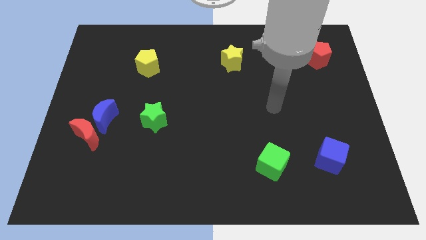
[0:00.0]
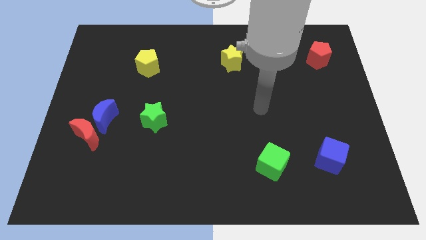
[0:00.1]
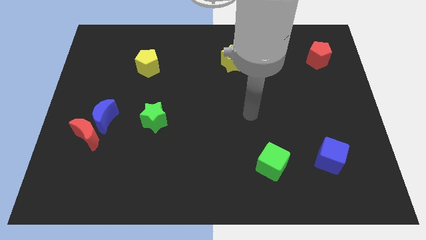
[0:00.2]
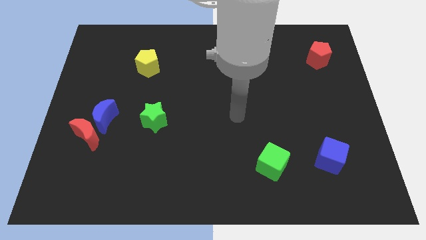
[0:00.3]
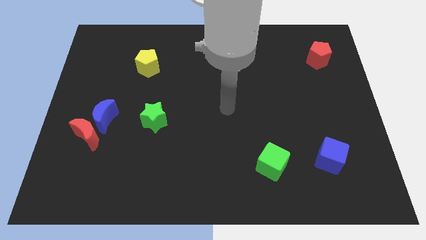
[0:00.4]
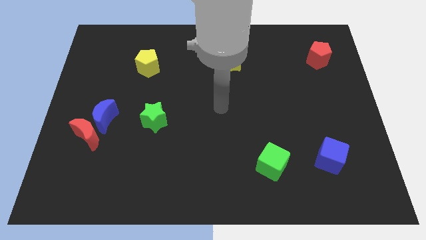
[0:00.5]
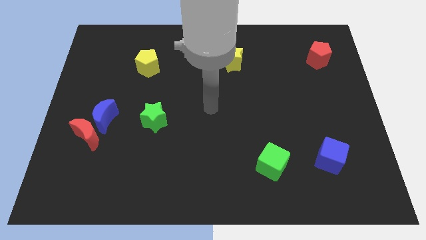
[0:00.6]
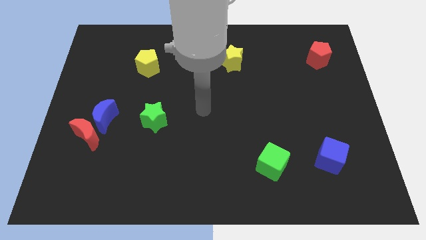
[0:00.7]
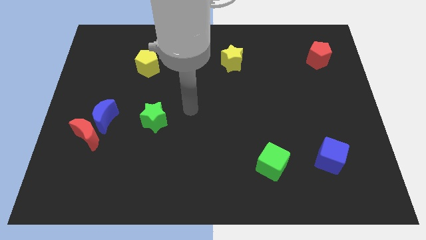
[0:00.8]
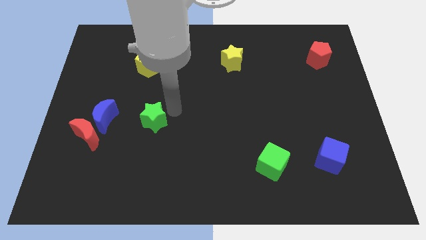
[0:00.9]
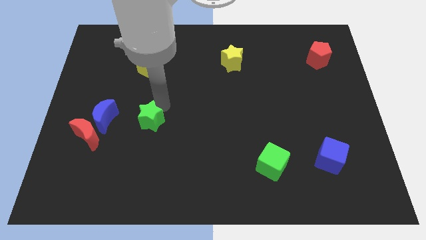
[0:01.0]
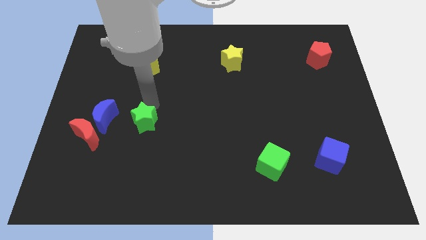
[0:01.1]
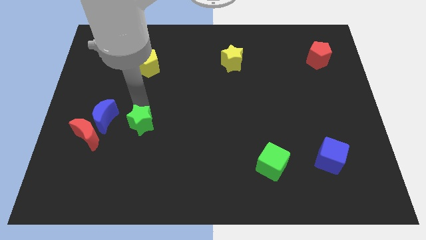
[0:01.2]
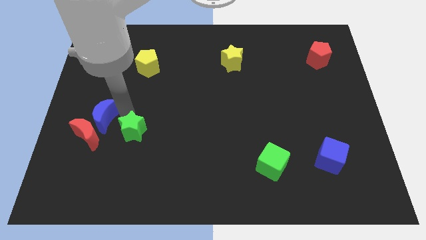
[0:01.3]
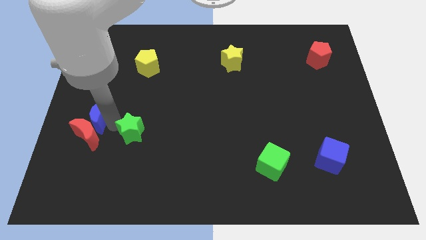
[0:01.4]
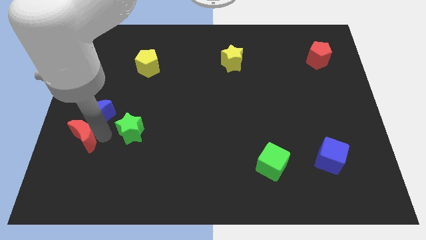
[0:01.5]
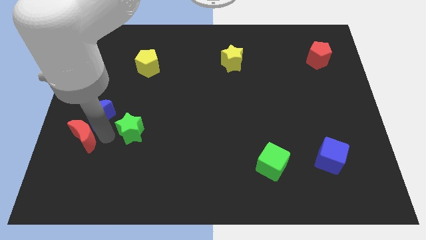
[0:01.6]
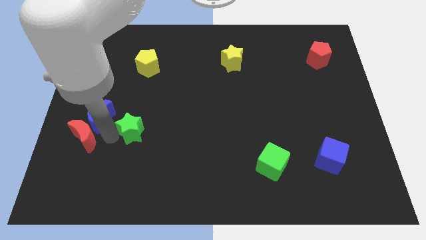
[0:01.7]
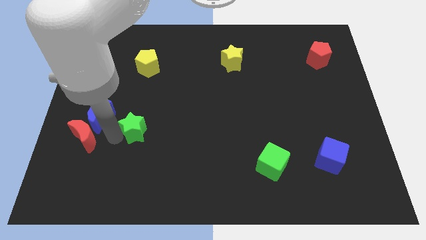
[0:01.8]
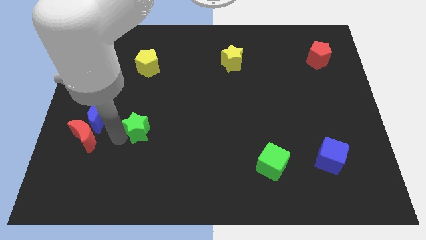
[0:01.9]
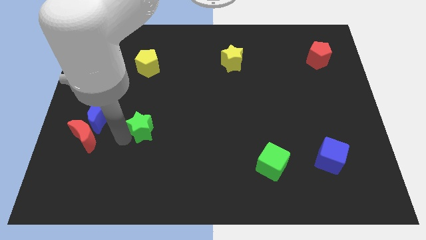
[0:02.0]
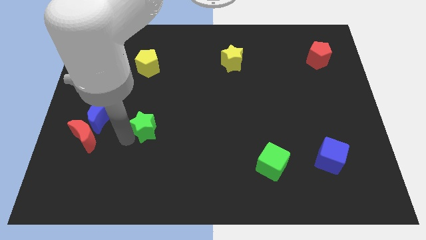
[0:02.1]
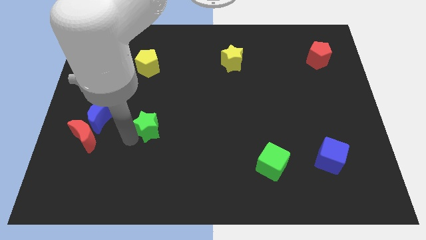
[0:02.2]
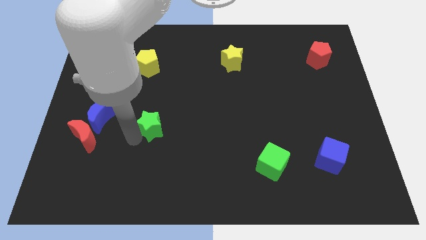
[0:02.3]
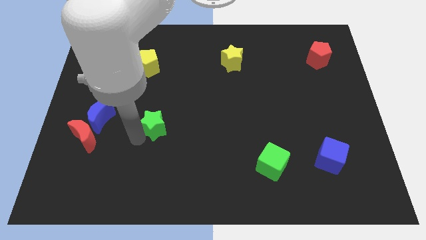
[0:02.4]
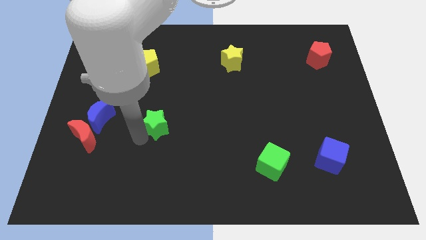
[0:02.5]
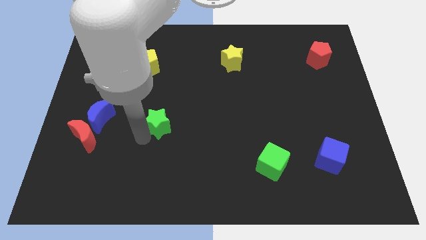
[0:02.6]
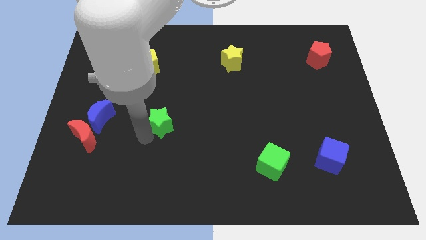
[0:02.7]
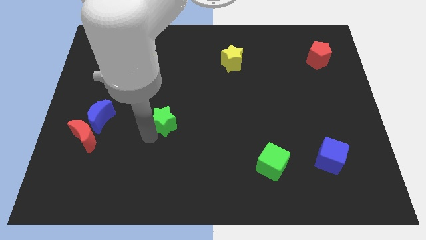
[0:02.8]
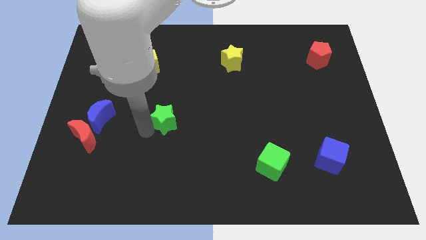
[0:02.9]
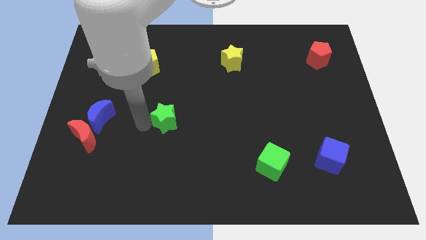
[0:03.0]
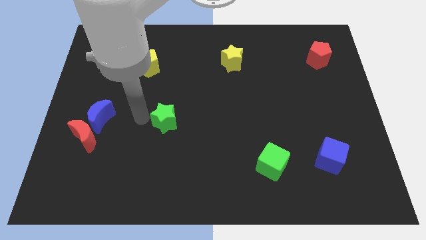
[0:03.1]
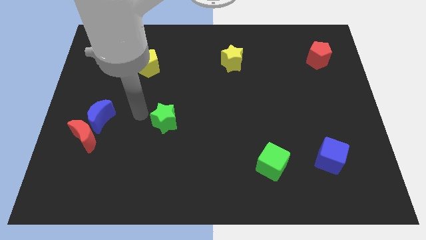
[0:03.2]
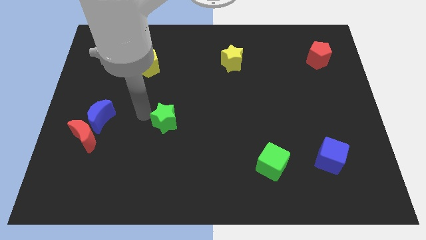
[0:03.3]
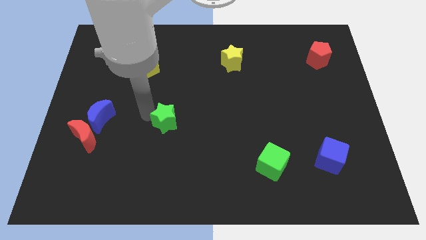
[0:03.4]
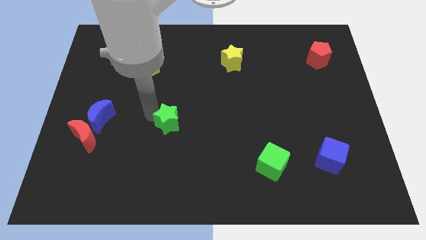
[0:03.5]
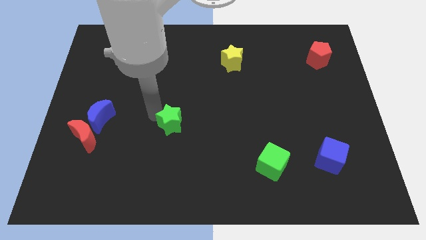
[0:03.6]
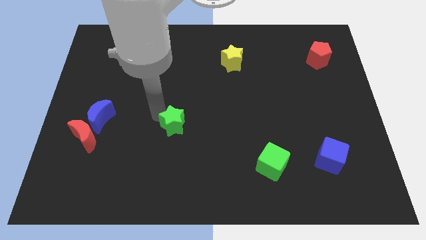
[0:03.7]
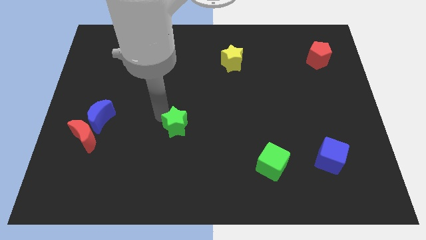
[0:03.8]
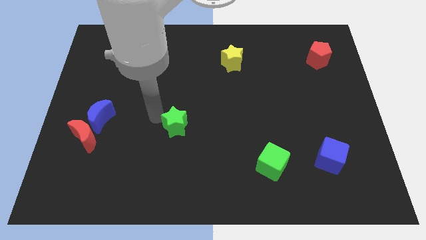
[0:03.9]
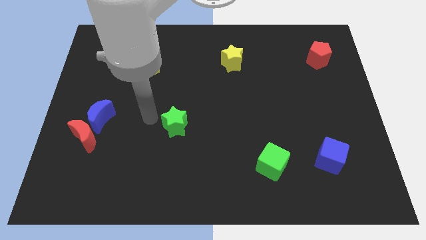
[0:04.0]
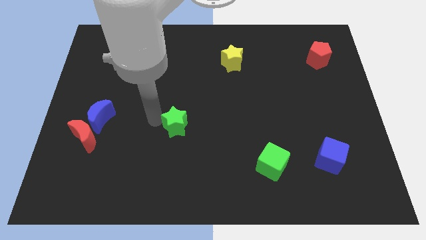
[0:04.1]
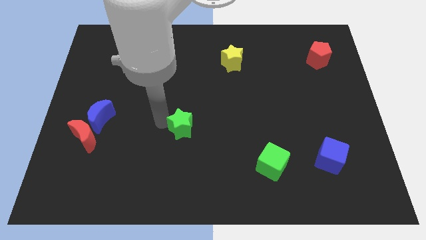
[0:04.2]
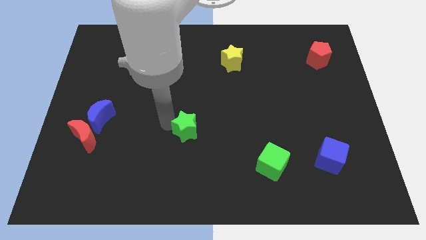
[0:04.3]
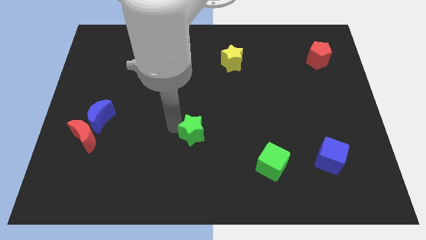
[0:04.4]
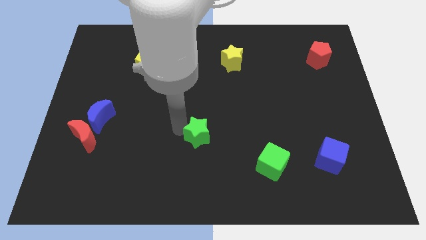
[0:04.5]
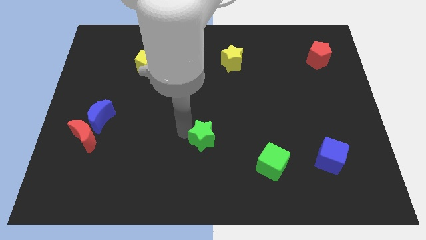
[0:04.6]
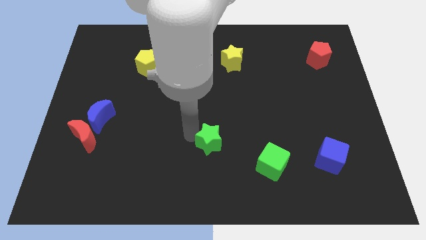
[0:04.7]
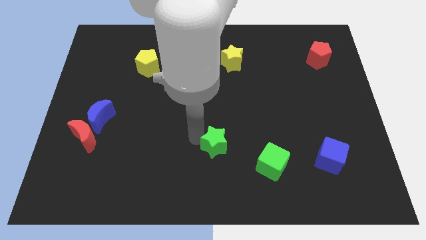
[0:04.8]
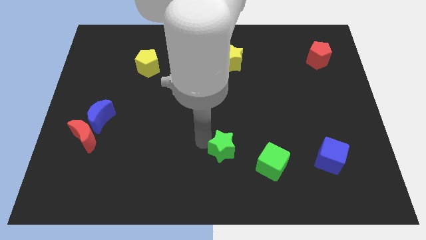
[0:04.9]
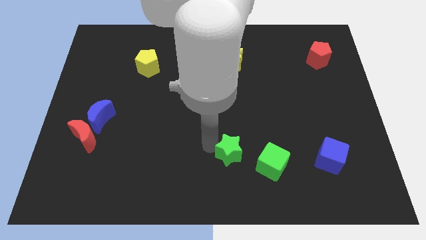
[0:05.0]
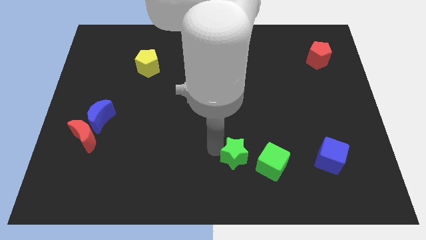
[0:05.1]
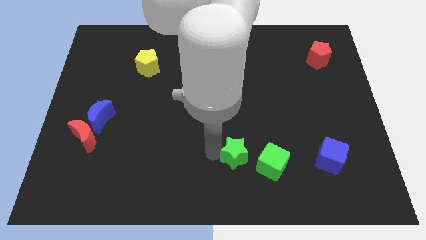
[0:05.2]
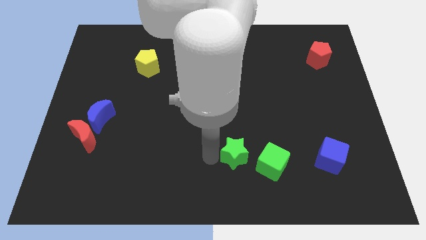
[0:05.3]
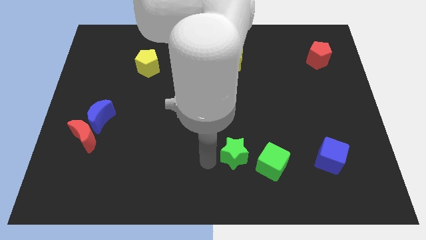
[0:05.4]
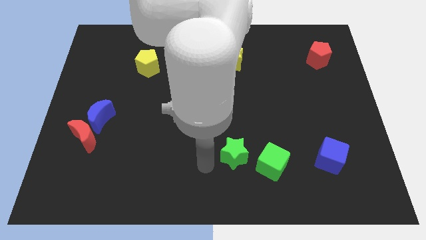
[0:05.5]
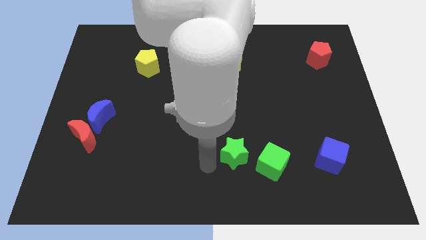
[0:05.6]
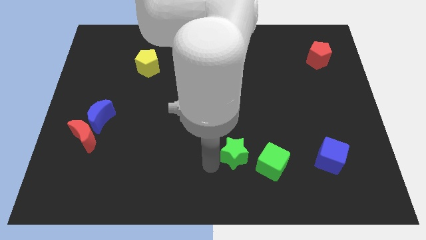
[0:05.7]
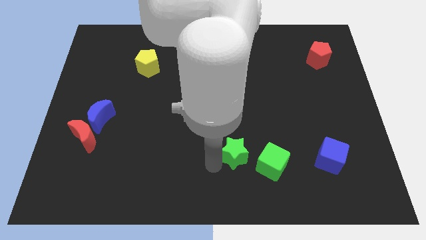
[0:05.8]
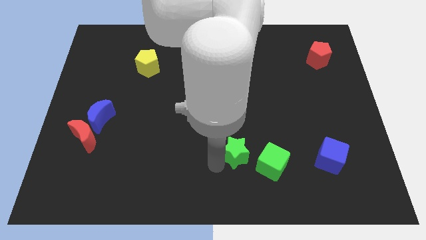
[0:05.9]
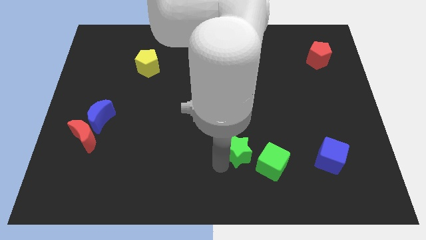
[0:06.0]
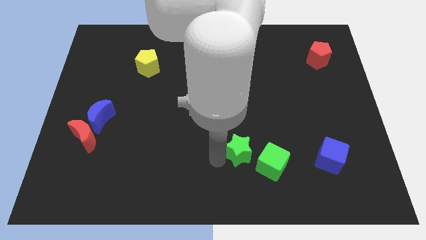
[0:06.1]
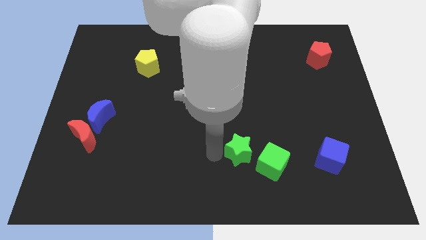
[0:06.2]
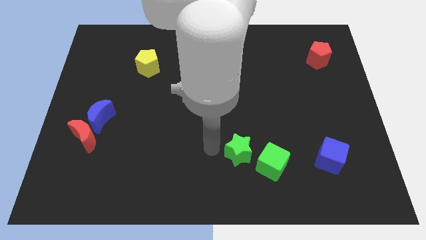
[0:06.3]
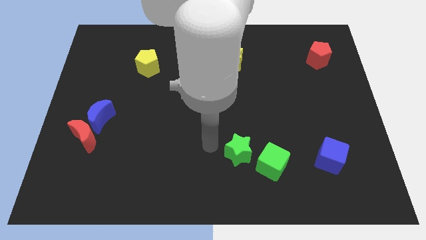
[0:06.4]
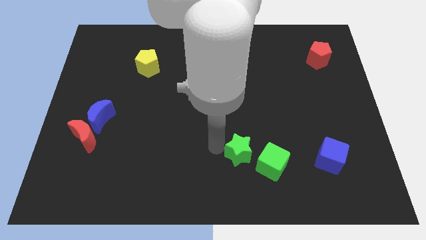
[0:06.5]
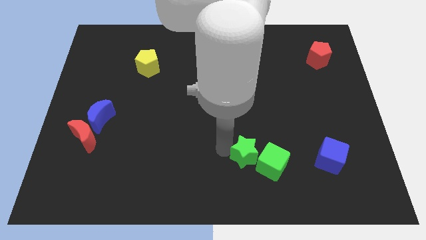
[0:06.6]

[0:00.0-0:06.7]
slide the green star close to the green cube
